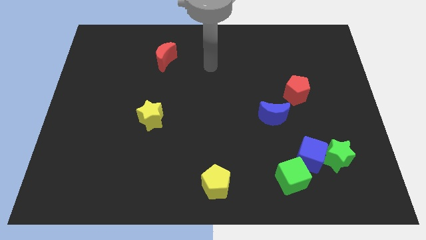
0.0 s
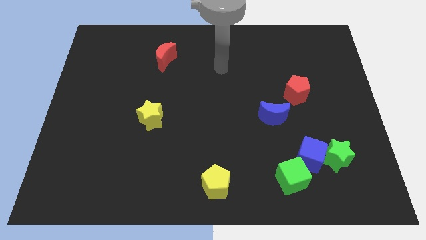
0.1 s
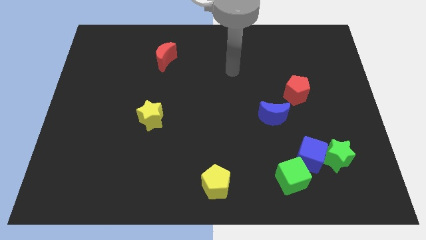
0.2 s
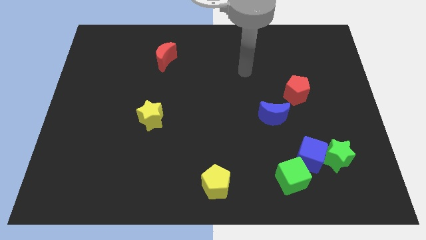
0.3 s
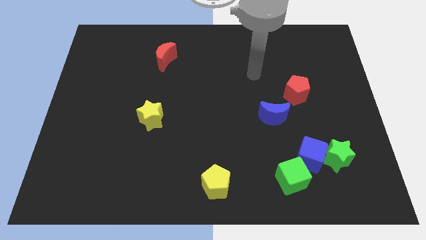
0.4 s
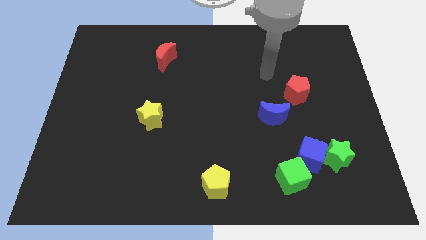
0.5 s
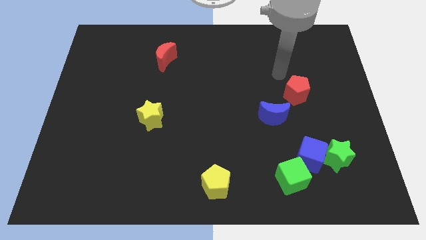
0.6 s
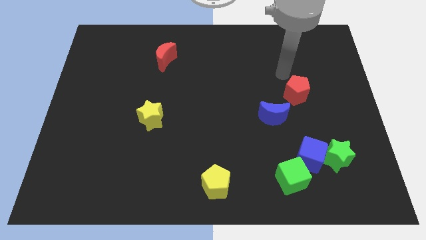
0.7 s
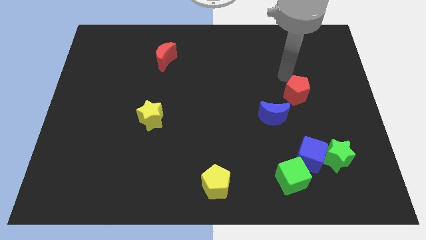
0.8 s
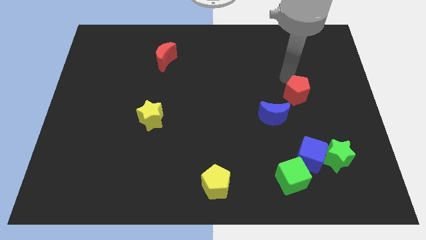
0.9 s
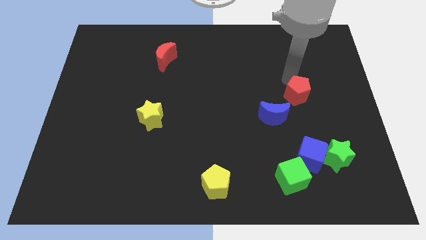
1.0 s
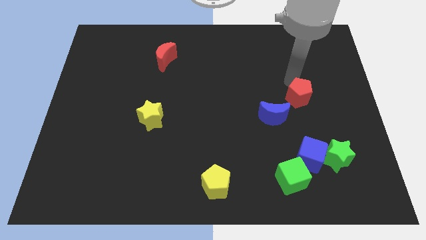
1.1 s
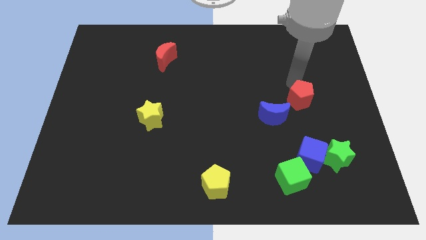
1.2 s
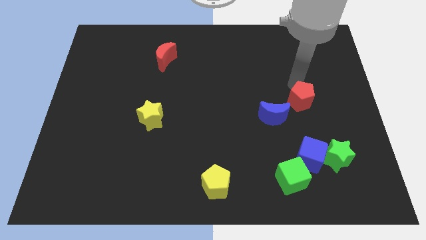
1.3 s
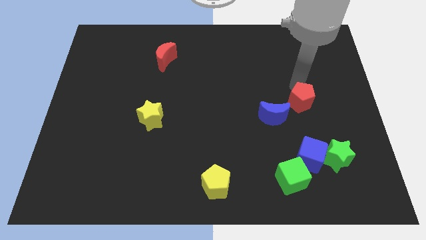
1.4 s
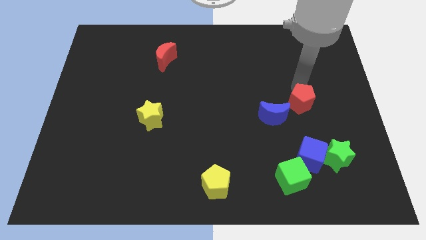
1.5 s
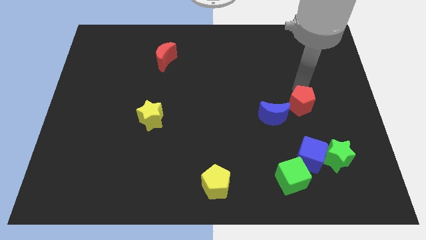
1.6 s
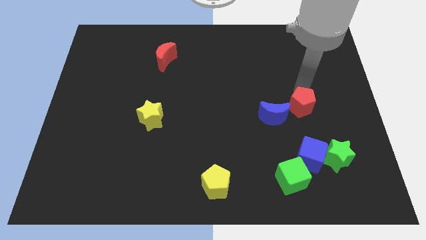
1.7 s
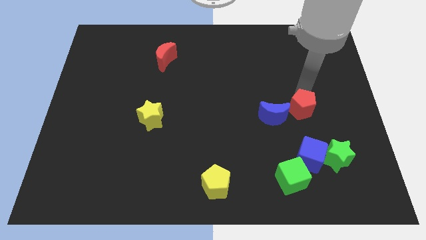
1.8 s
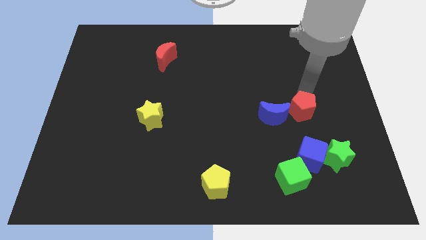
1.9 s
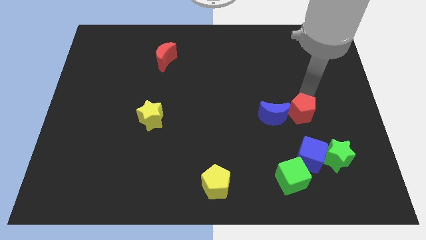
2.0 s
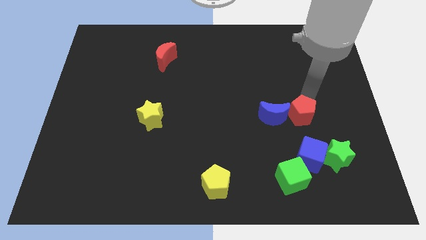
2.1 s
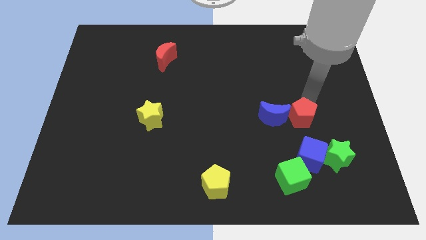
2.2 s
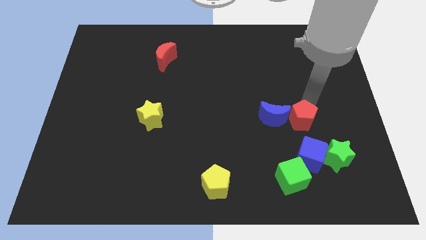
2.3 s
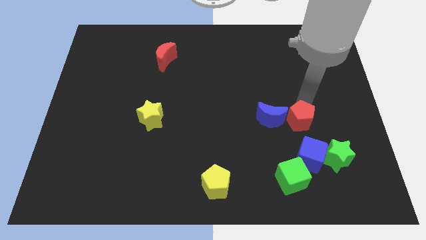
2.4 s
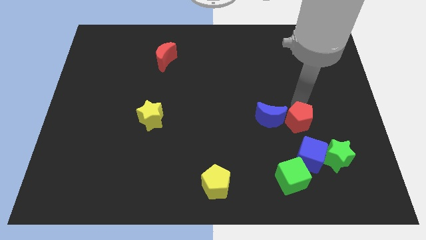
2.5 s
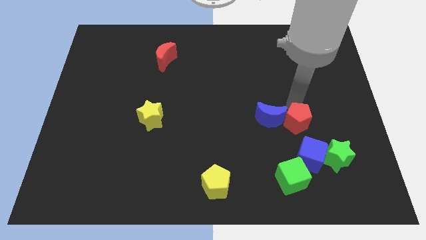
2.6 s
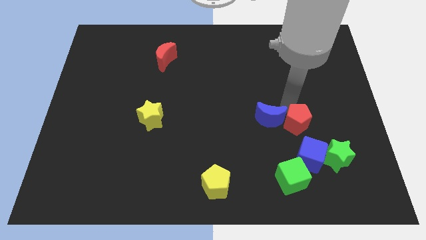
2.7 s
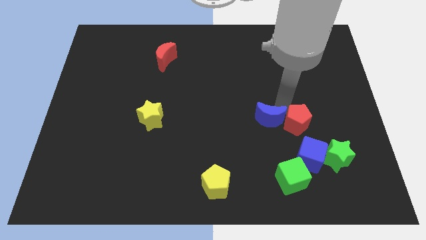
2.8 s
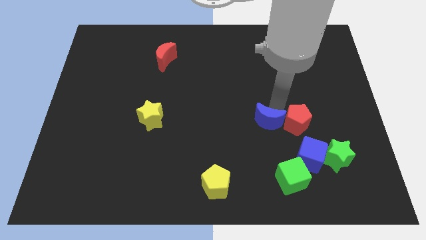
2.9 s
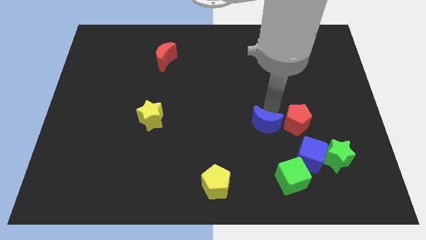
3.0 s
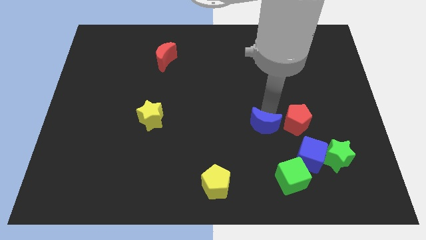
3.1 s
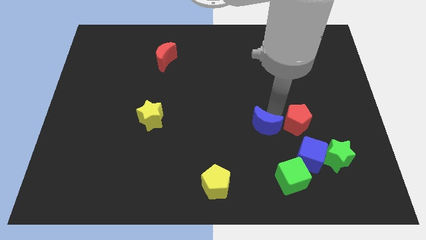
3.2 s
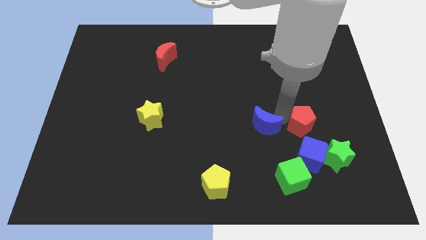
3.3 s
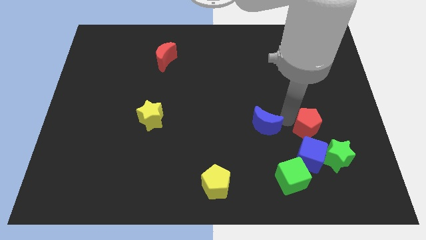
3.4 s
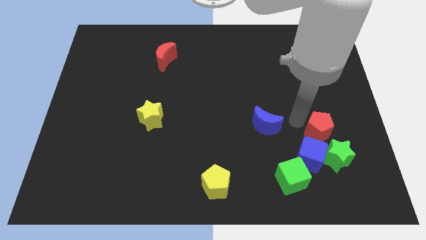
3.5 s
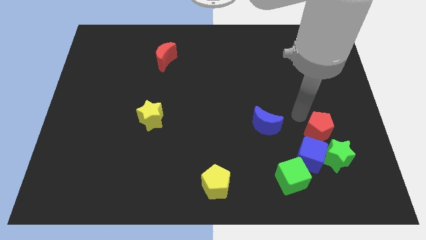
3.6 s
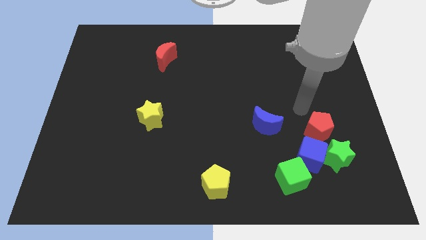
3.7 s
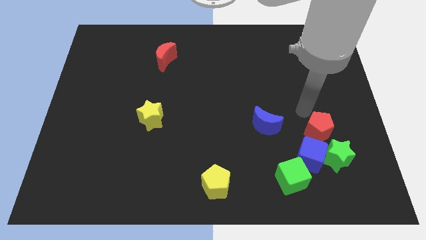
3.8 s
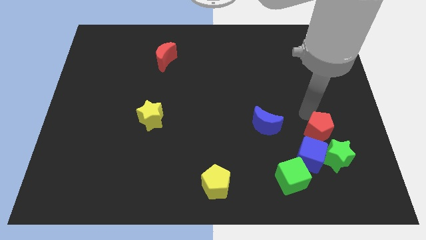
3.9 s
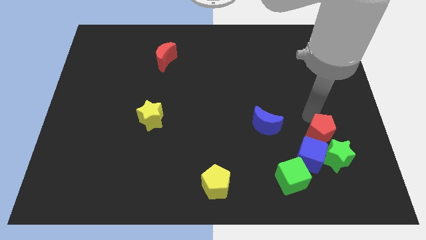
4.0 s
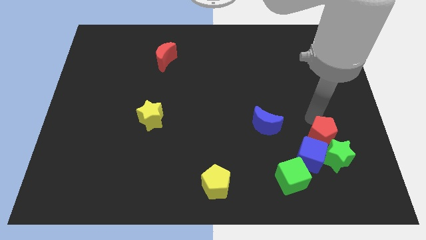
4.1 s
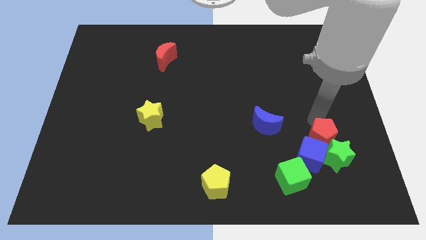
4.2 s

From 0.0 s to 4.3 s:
slide the red pentagon close to the green star

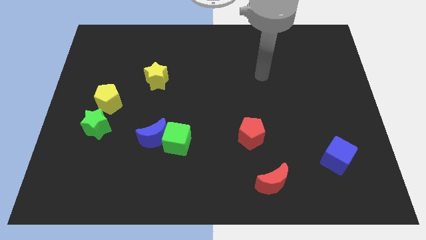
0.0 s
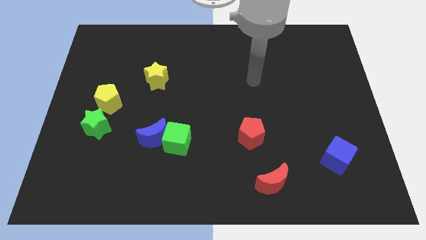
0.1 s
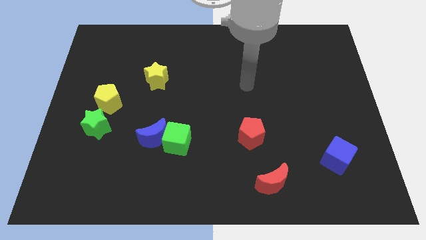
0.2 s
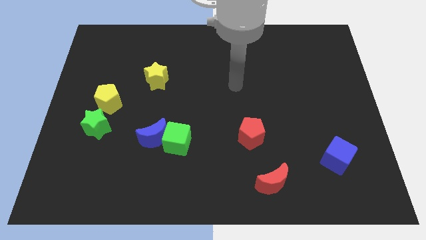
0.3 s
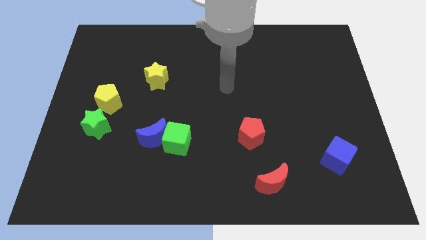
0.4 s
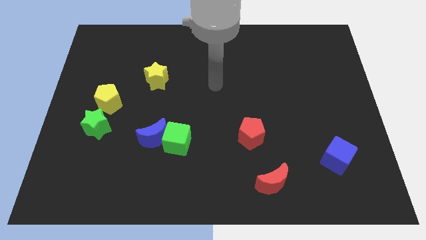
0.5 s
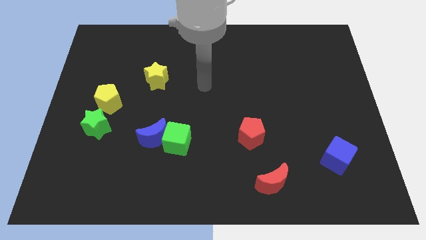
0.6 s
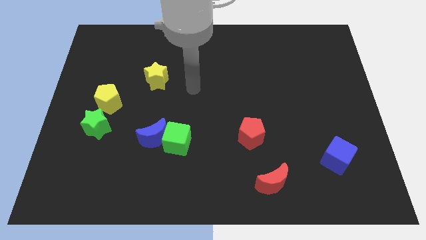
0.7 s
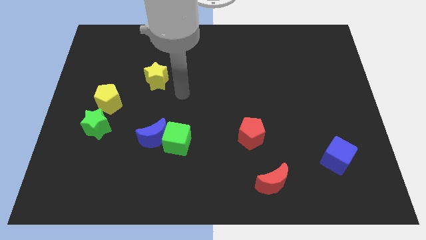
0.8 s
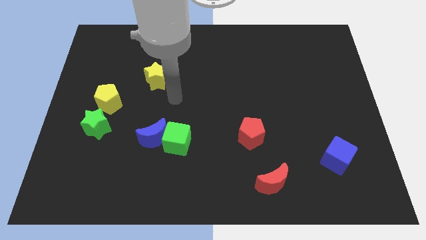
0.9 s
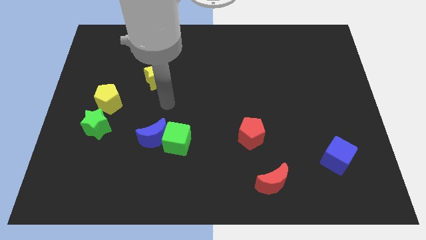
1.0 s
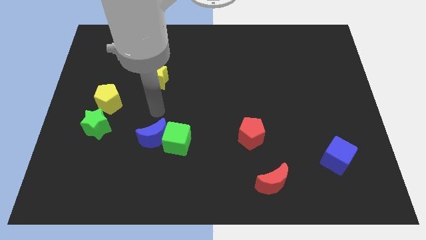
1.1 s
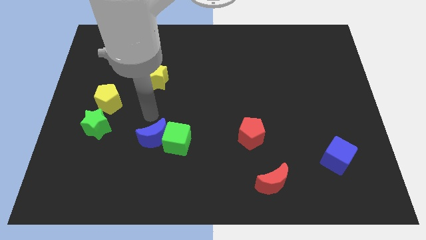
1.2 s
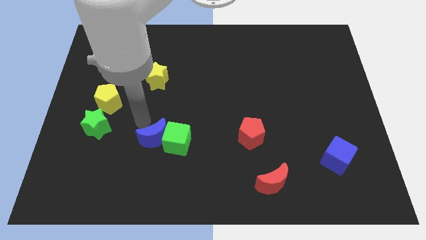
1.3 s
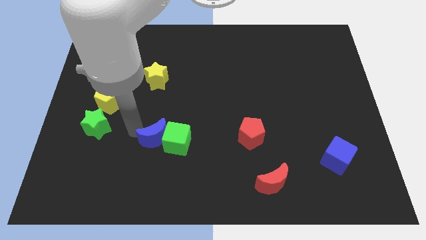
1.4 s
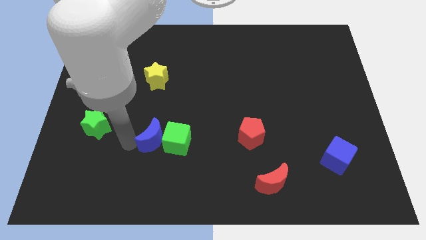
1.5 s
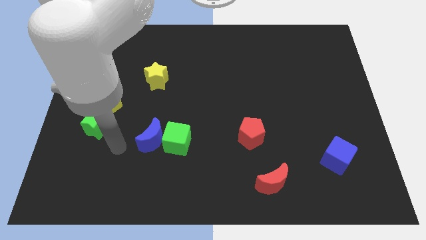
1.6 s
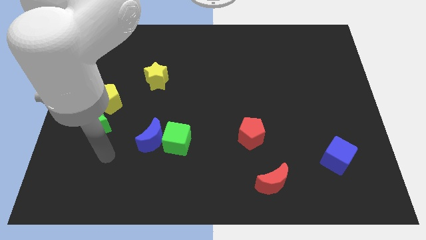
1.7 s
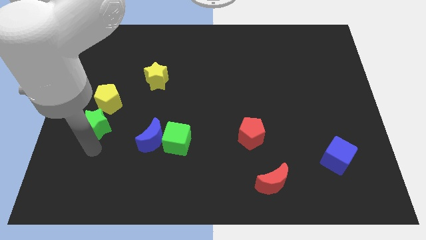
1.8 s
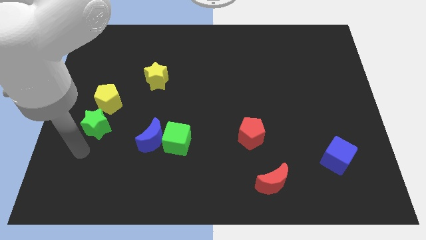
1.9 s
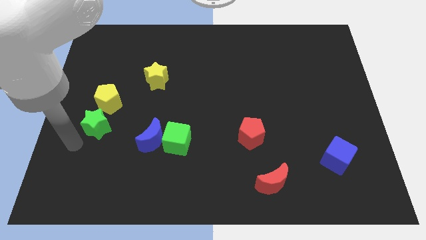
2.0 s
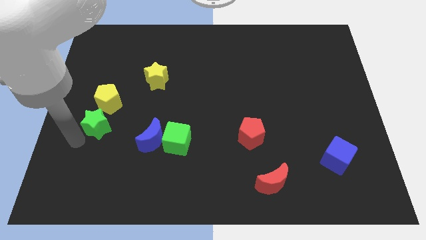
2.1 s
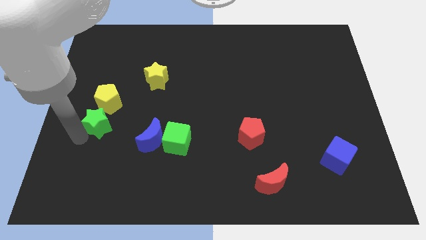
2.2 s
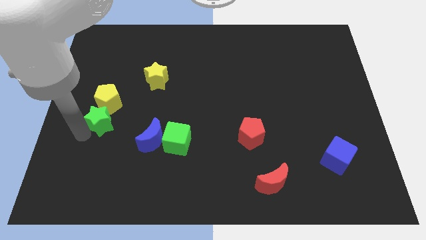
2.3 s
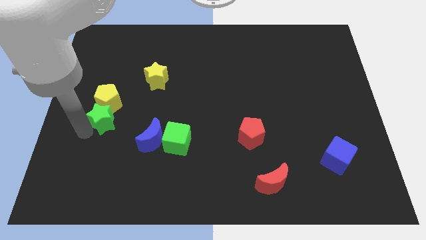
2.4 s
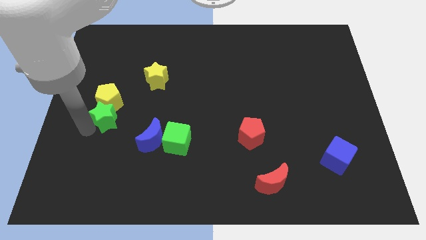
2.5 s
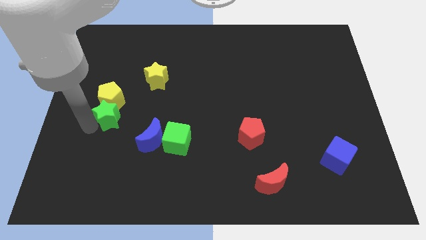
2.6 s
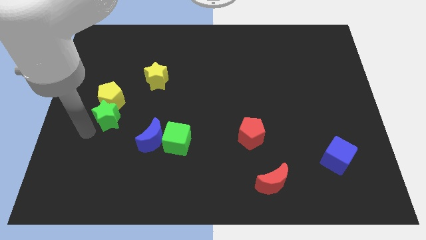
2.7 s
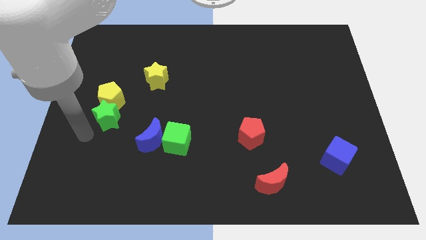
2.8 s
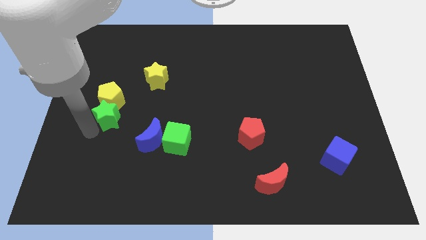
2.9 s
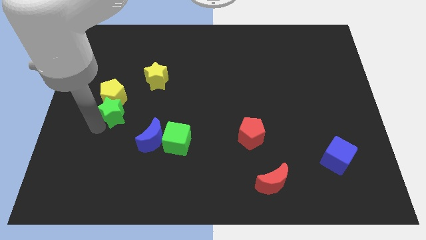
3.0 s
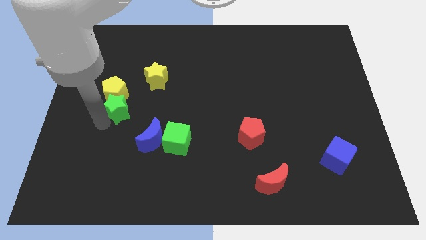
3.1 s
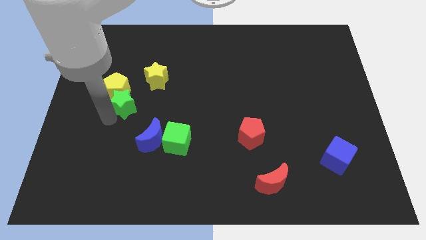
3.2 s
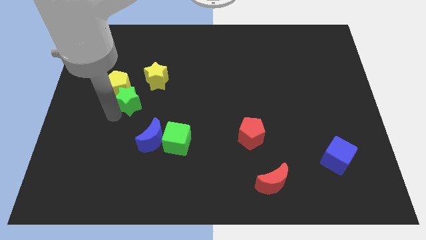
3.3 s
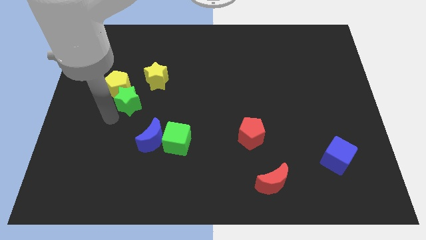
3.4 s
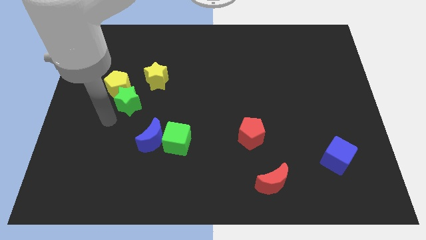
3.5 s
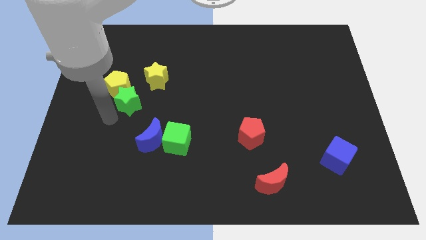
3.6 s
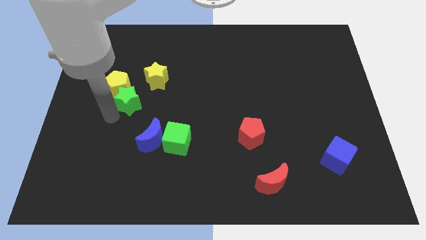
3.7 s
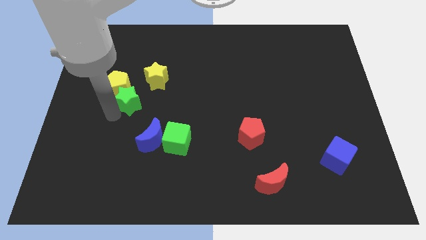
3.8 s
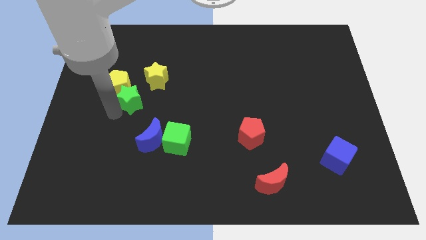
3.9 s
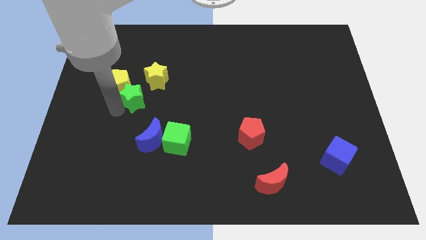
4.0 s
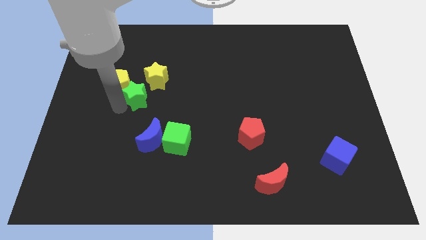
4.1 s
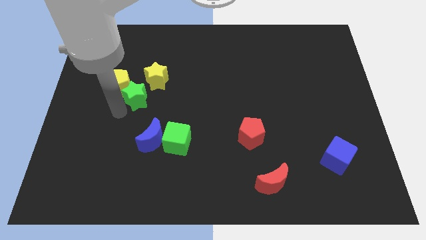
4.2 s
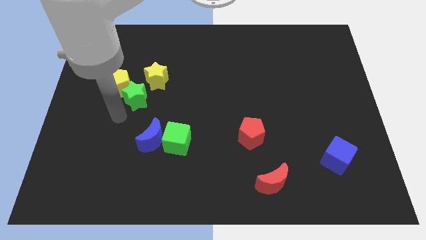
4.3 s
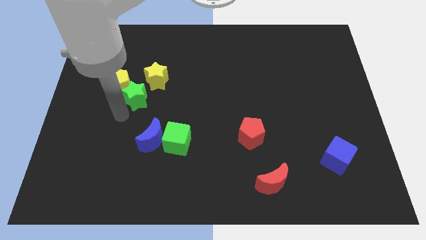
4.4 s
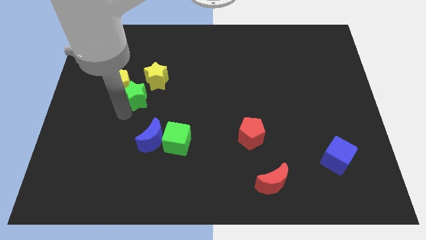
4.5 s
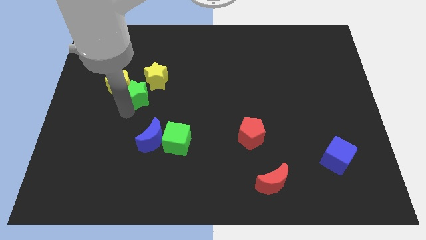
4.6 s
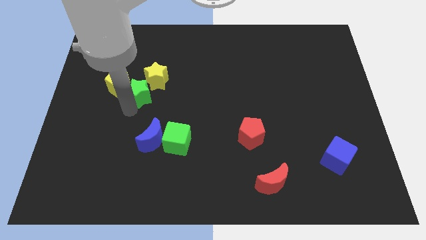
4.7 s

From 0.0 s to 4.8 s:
move the green star towards the yellow star
